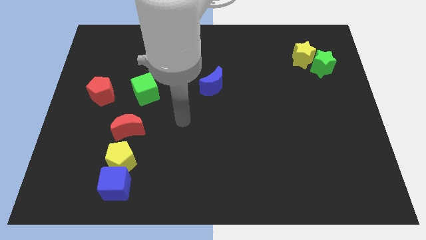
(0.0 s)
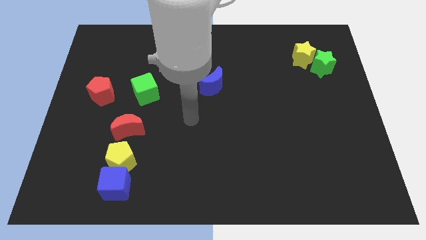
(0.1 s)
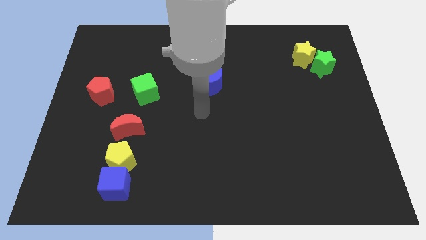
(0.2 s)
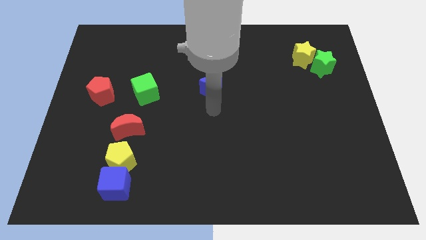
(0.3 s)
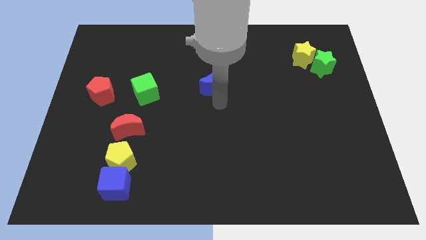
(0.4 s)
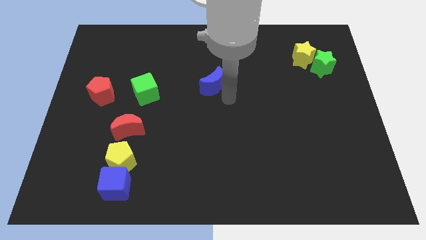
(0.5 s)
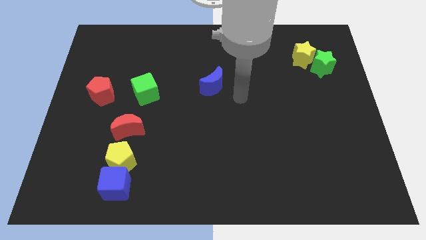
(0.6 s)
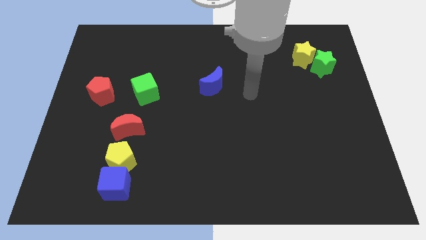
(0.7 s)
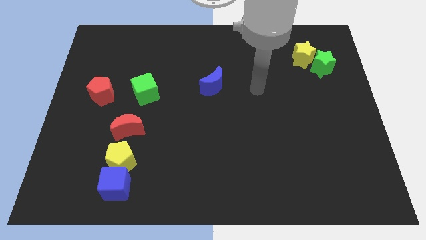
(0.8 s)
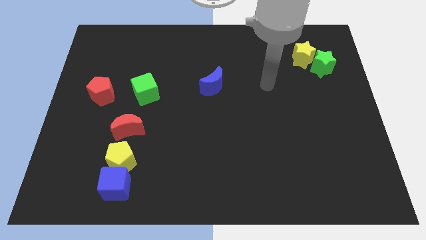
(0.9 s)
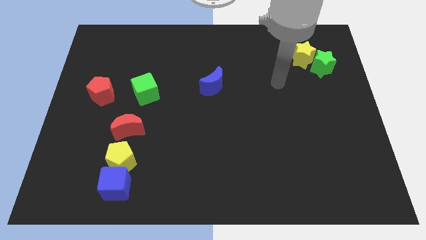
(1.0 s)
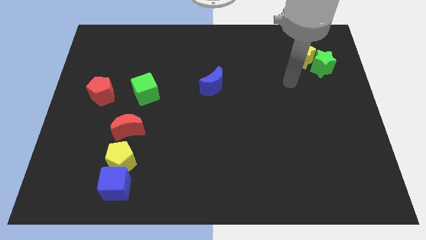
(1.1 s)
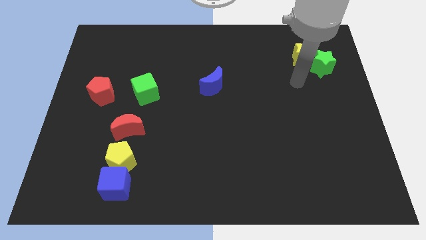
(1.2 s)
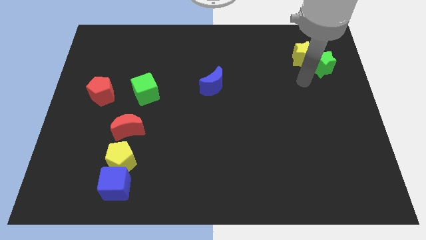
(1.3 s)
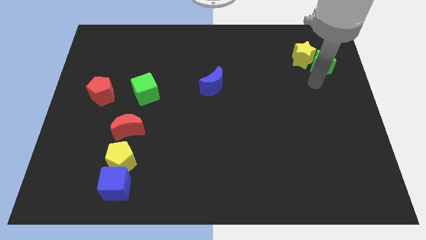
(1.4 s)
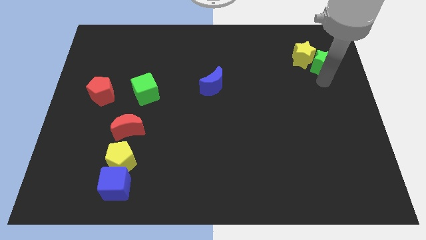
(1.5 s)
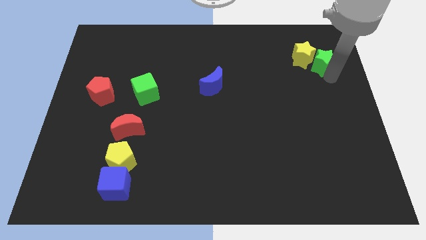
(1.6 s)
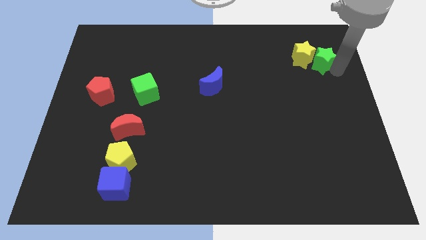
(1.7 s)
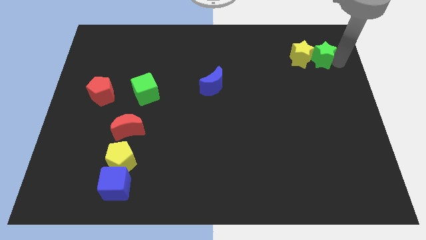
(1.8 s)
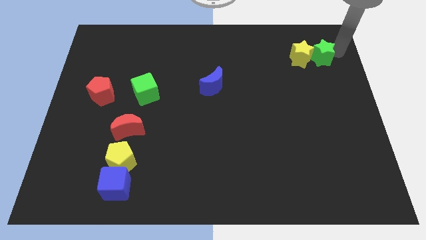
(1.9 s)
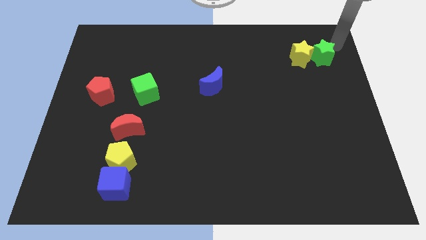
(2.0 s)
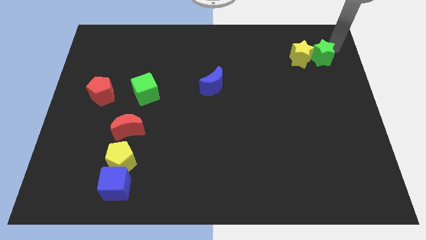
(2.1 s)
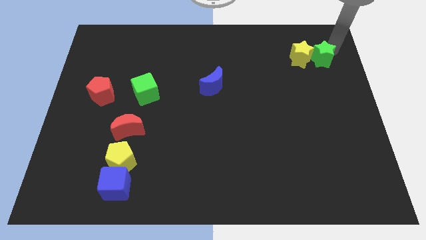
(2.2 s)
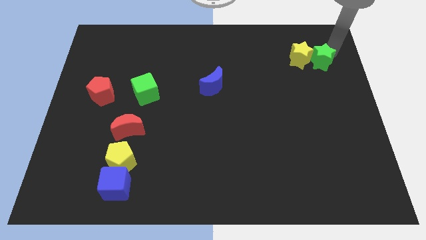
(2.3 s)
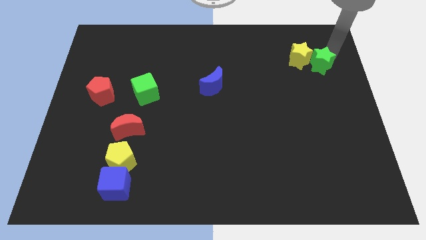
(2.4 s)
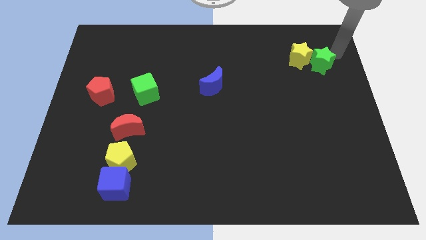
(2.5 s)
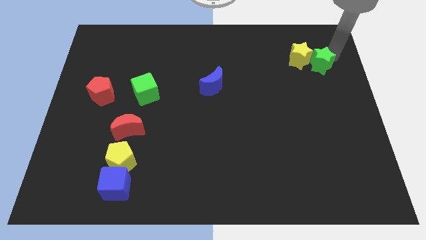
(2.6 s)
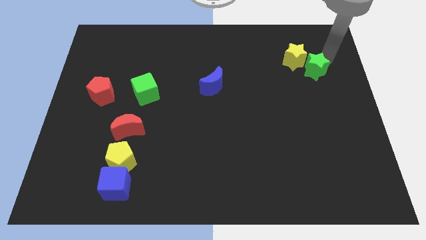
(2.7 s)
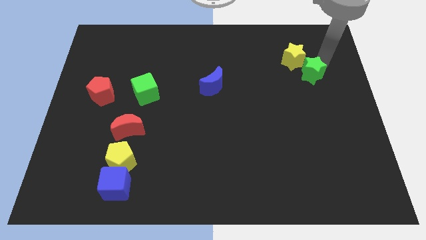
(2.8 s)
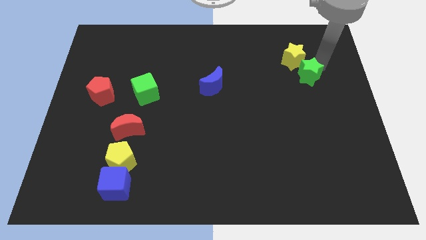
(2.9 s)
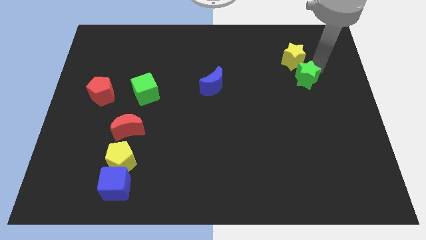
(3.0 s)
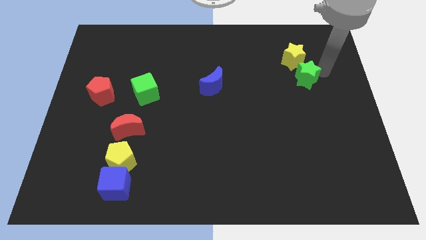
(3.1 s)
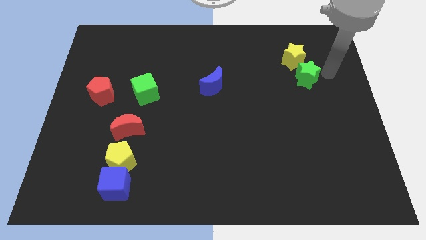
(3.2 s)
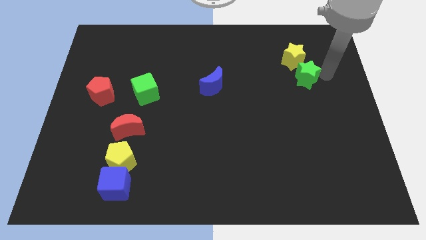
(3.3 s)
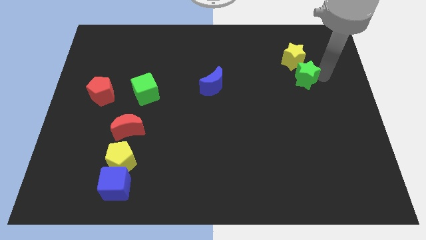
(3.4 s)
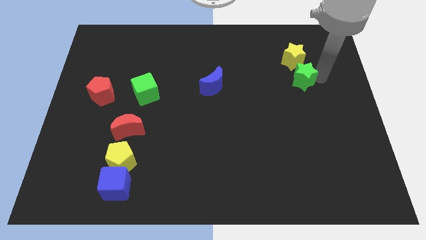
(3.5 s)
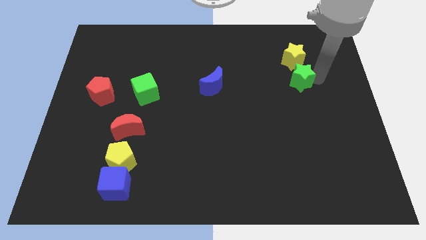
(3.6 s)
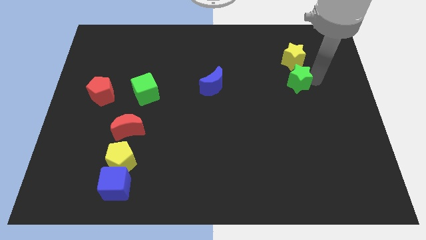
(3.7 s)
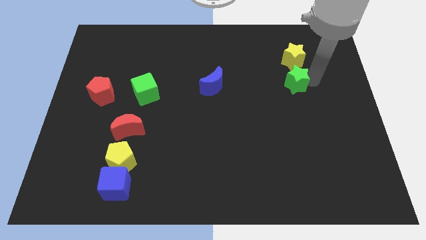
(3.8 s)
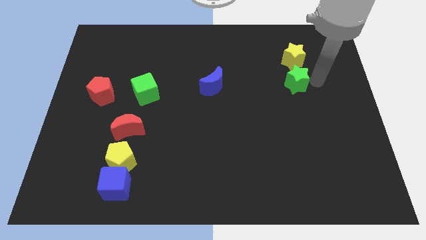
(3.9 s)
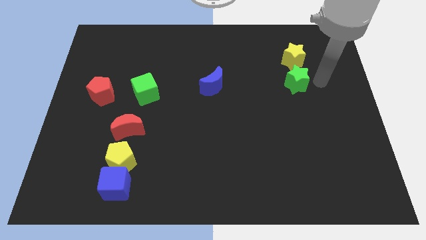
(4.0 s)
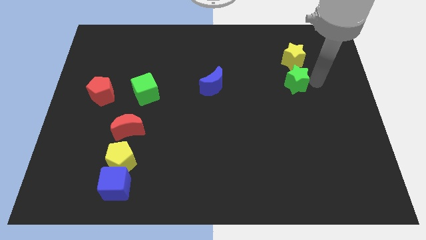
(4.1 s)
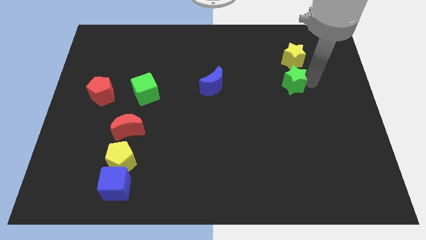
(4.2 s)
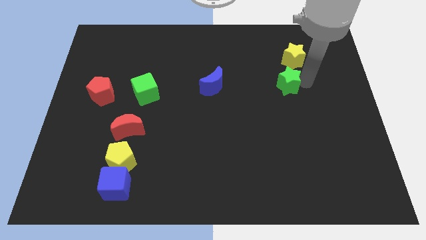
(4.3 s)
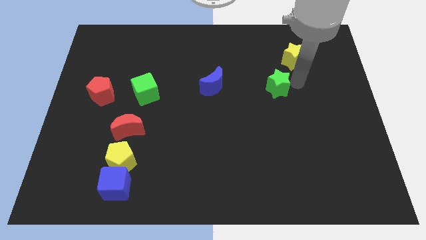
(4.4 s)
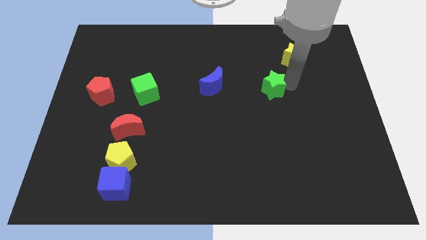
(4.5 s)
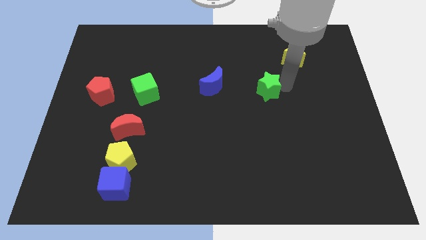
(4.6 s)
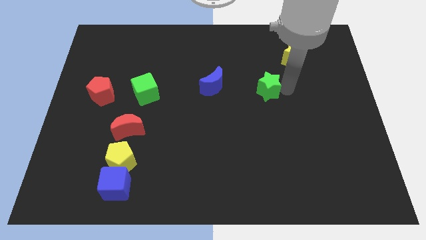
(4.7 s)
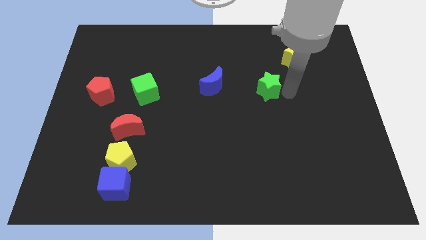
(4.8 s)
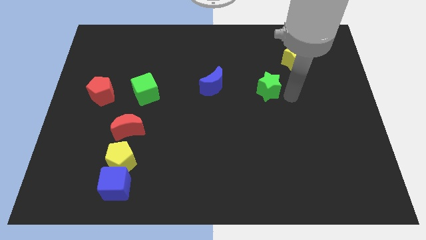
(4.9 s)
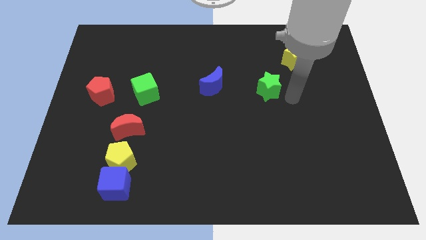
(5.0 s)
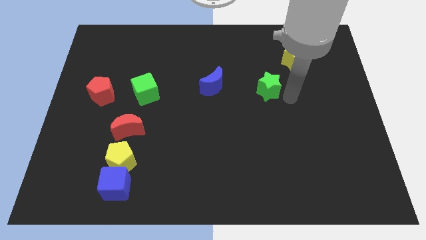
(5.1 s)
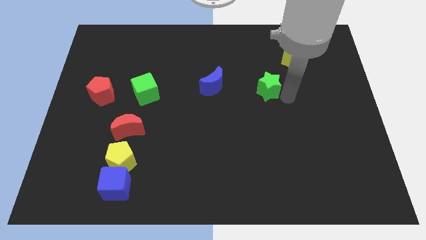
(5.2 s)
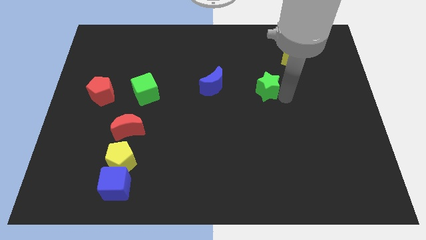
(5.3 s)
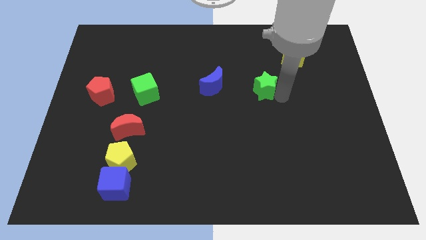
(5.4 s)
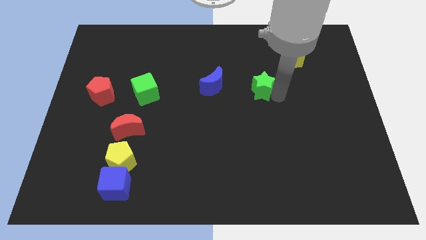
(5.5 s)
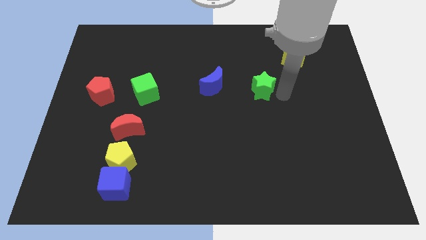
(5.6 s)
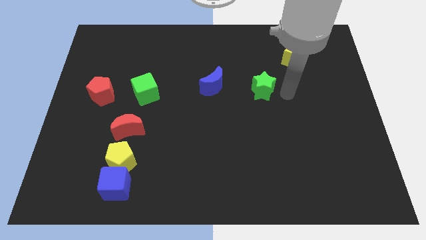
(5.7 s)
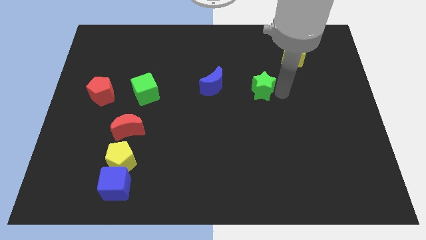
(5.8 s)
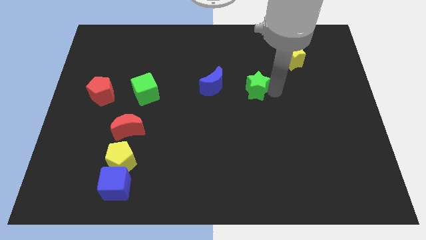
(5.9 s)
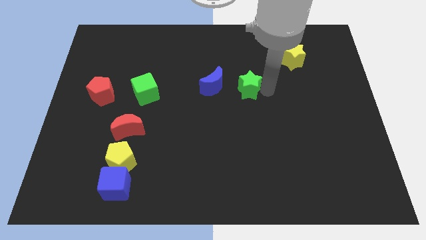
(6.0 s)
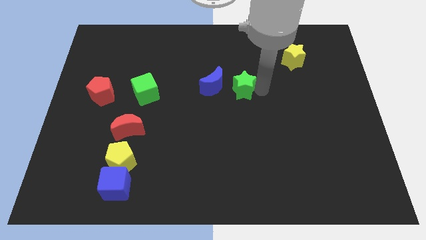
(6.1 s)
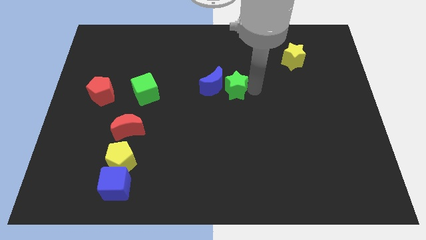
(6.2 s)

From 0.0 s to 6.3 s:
slide the green star towards the blue moon

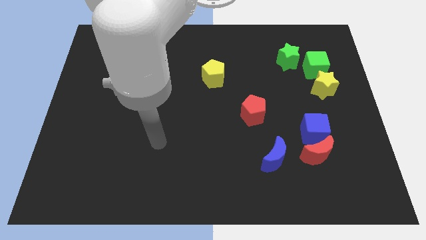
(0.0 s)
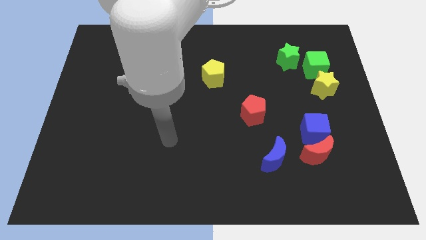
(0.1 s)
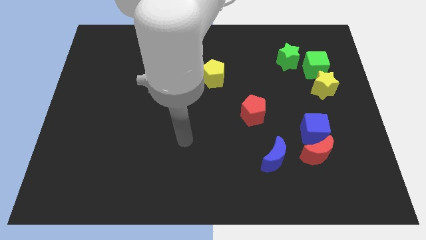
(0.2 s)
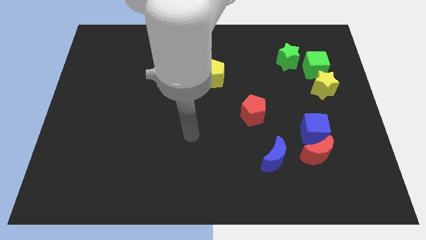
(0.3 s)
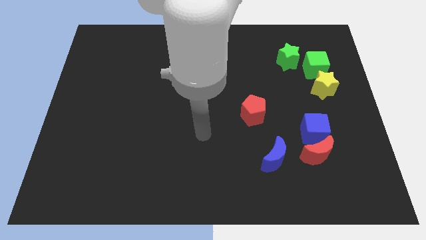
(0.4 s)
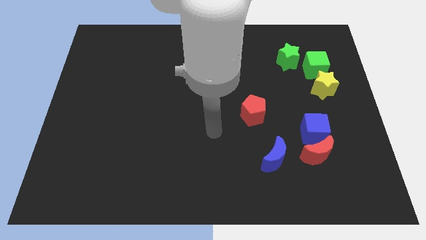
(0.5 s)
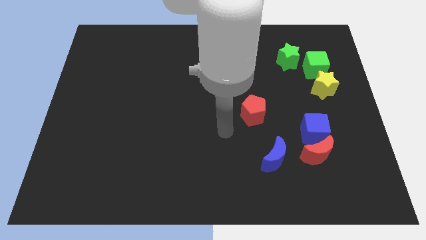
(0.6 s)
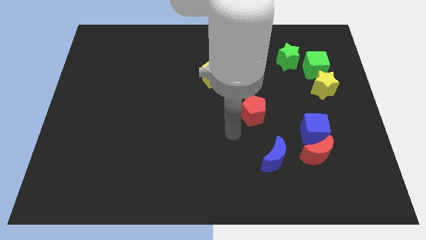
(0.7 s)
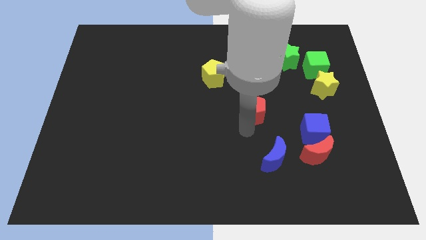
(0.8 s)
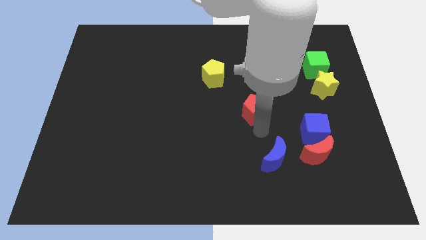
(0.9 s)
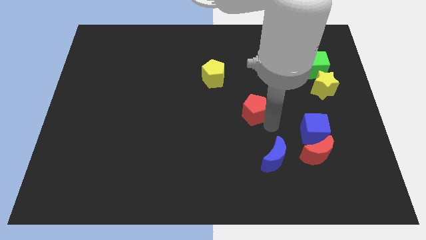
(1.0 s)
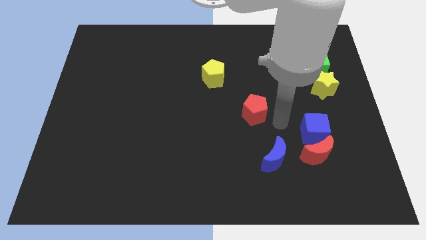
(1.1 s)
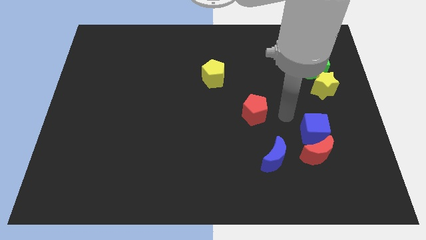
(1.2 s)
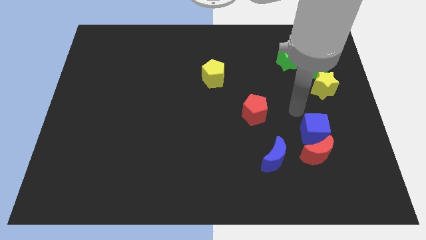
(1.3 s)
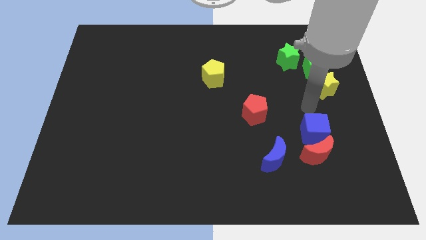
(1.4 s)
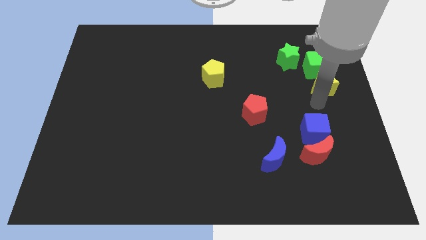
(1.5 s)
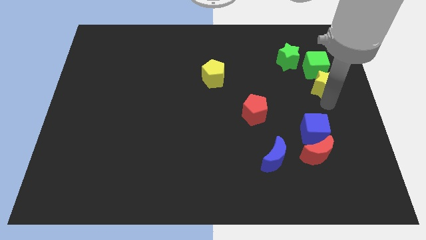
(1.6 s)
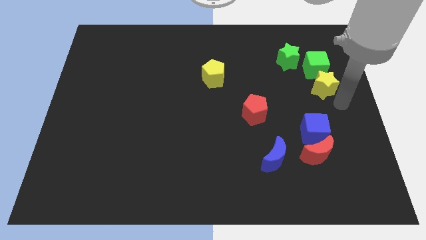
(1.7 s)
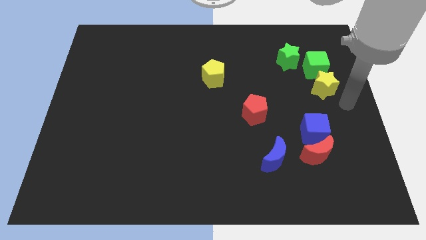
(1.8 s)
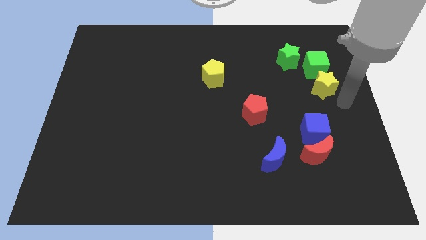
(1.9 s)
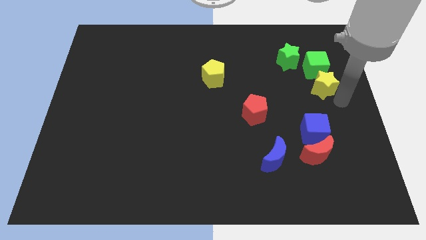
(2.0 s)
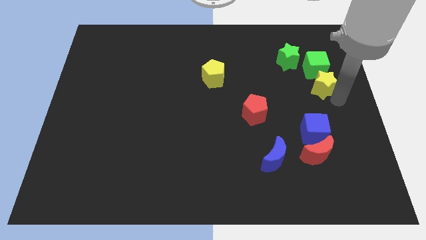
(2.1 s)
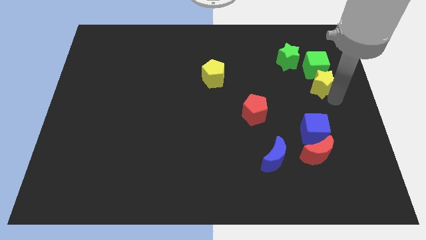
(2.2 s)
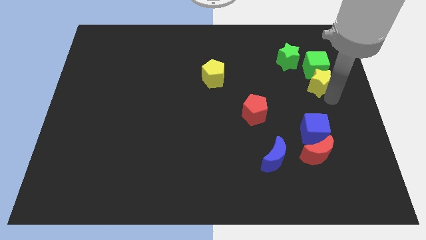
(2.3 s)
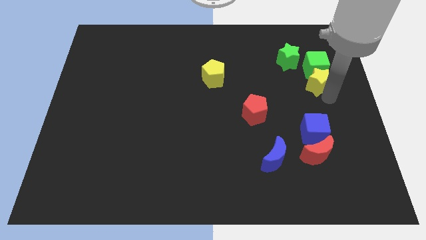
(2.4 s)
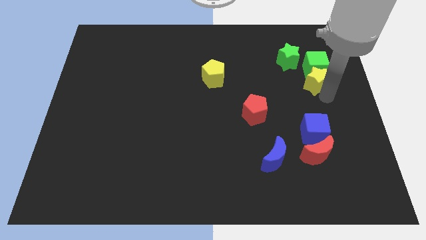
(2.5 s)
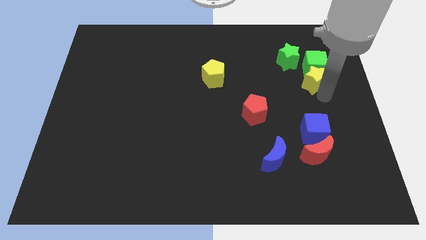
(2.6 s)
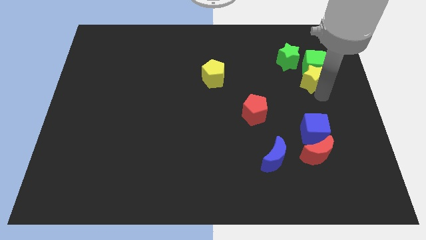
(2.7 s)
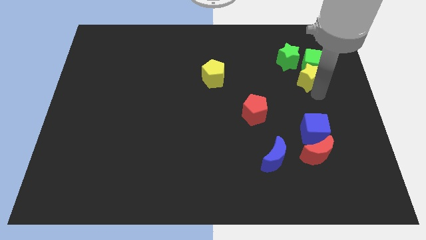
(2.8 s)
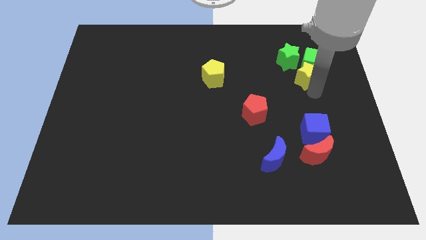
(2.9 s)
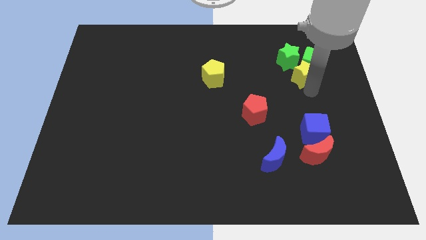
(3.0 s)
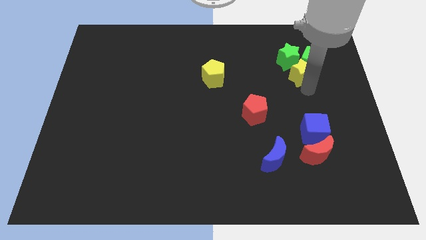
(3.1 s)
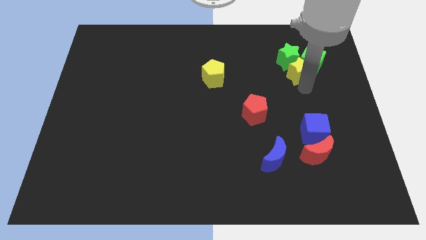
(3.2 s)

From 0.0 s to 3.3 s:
push the yellow star towards the green star
